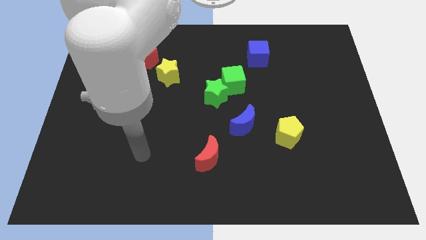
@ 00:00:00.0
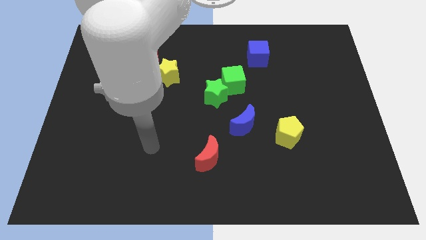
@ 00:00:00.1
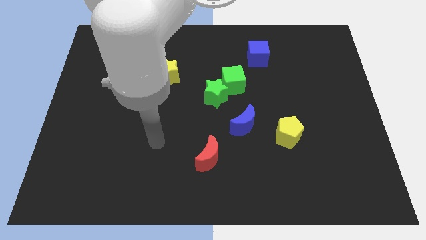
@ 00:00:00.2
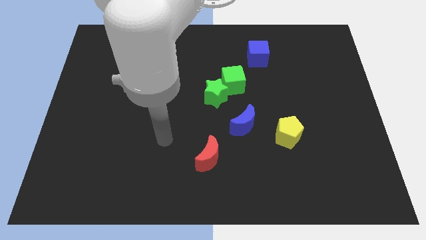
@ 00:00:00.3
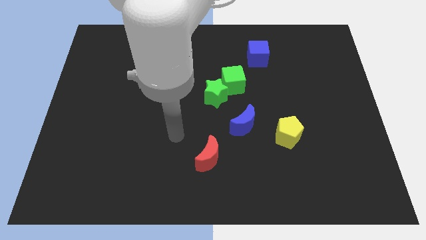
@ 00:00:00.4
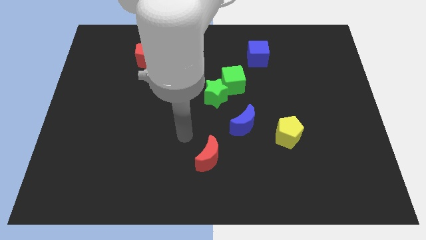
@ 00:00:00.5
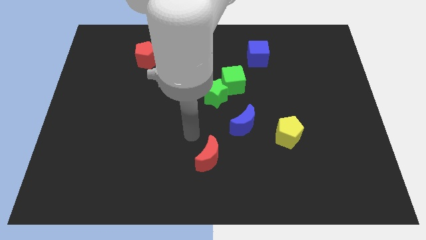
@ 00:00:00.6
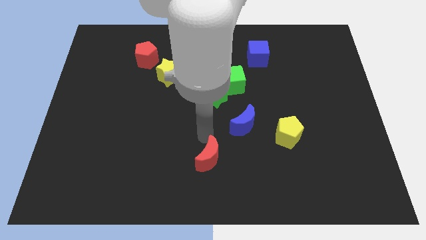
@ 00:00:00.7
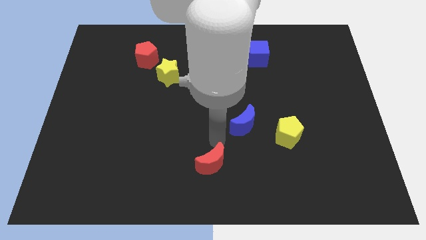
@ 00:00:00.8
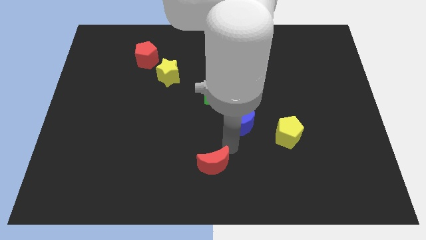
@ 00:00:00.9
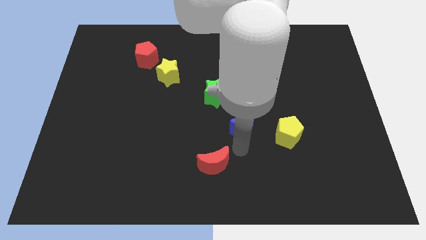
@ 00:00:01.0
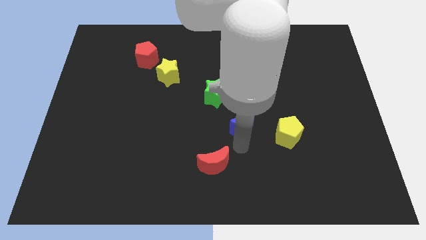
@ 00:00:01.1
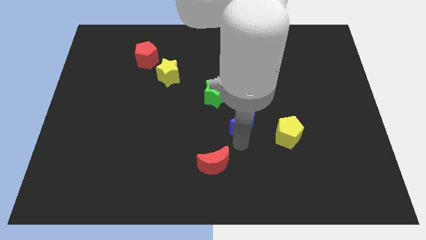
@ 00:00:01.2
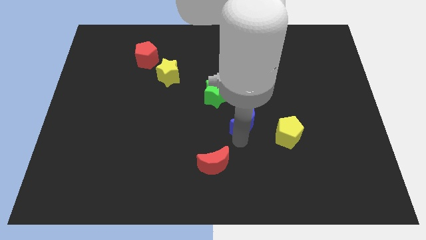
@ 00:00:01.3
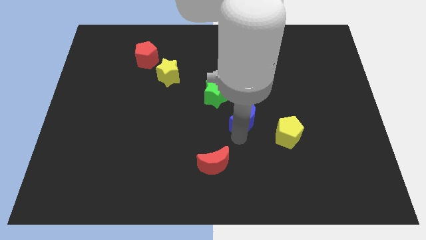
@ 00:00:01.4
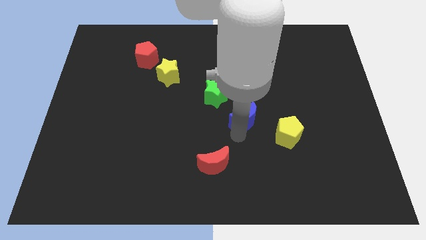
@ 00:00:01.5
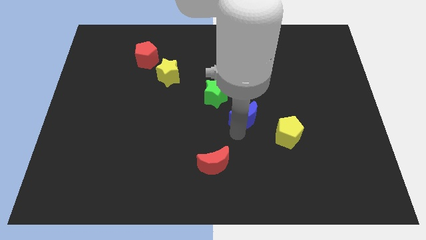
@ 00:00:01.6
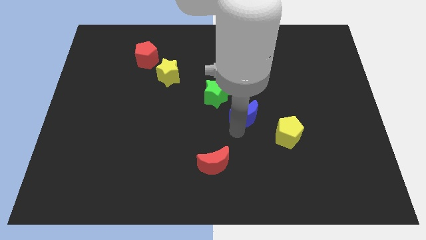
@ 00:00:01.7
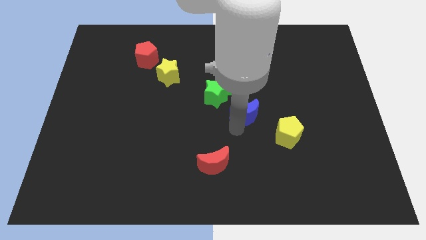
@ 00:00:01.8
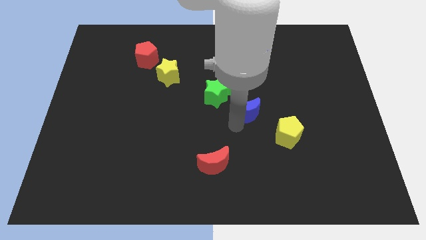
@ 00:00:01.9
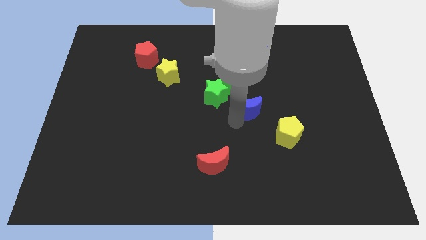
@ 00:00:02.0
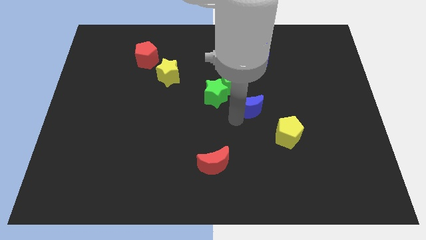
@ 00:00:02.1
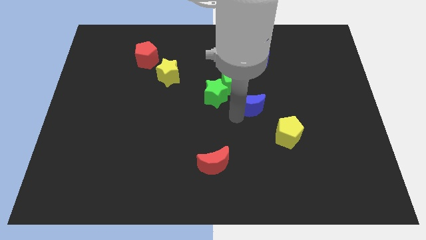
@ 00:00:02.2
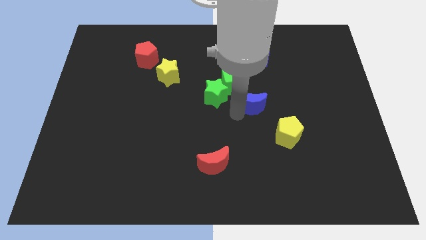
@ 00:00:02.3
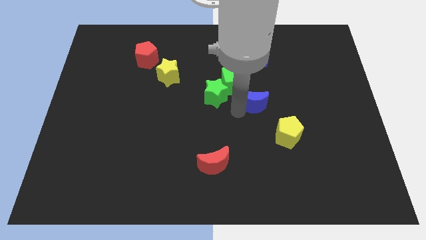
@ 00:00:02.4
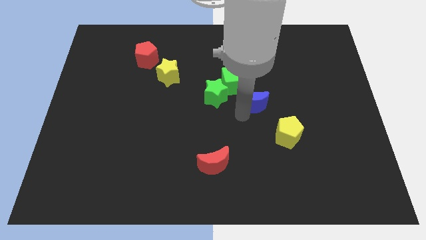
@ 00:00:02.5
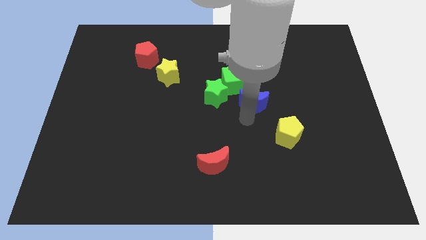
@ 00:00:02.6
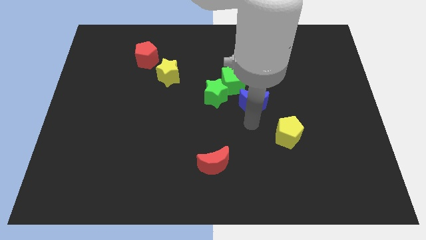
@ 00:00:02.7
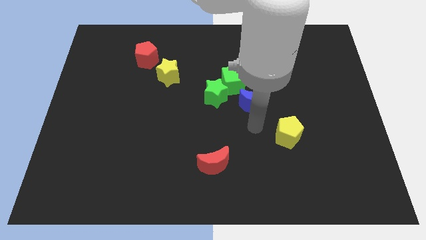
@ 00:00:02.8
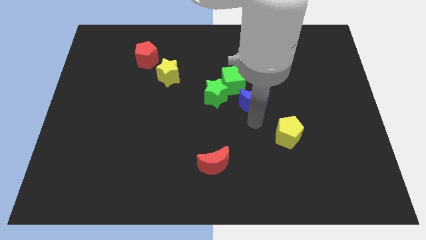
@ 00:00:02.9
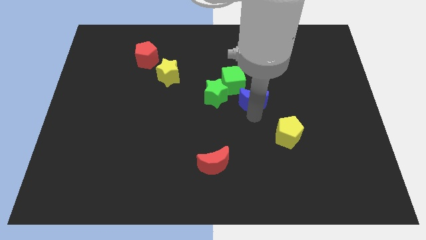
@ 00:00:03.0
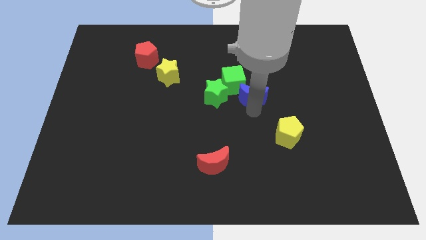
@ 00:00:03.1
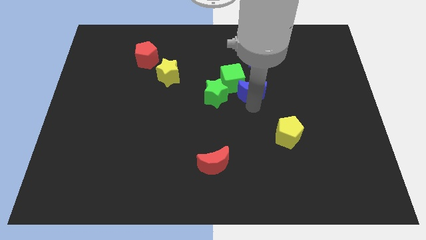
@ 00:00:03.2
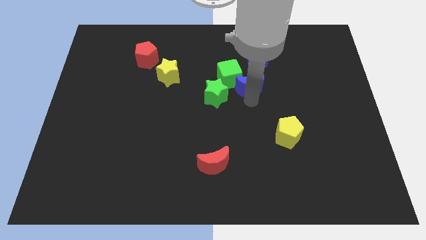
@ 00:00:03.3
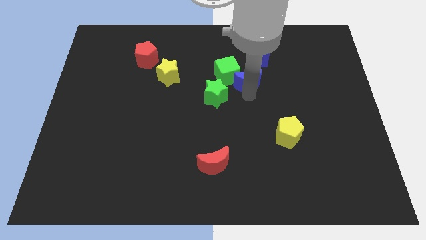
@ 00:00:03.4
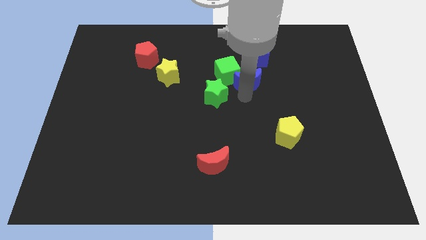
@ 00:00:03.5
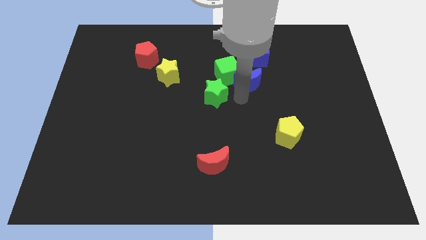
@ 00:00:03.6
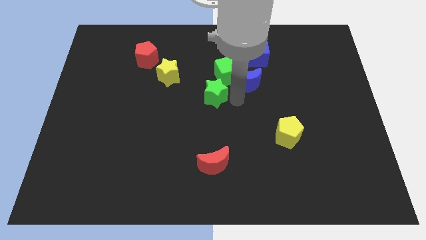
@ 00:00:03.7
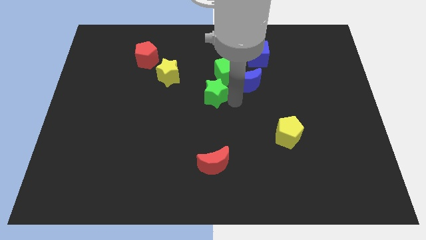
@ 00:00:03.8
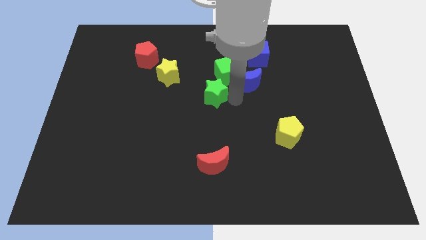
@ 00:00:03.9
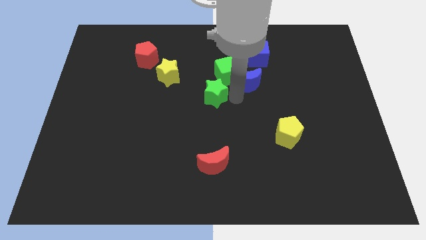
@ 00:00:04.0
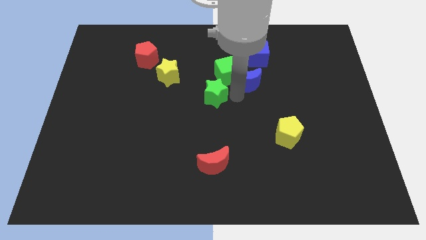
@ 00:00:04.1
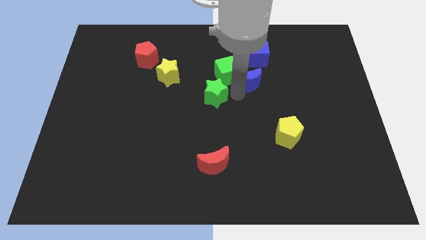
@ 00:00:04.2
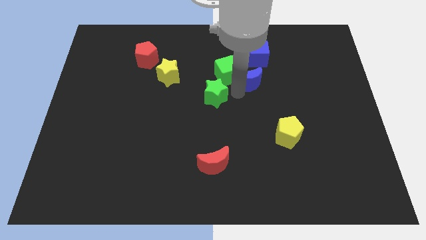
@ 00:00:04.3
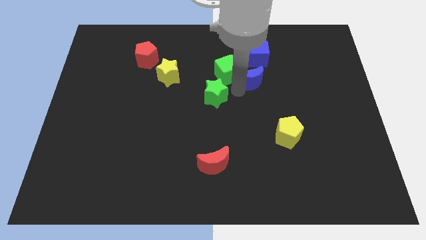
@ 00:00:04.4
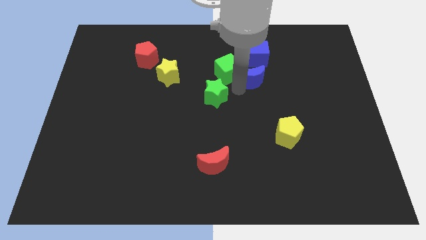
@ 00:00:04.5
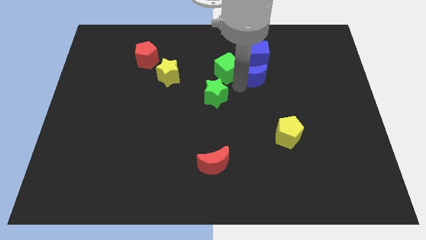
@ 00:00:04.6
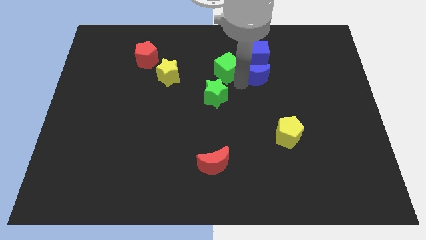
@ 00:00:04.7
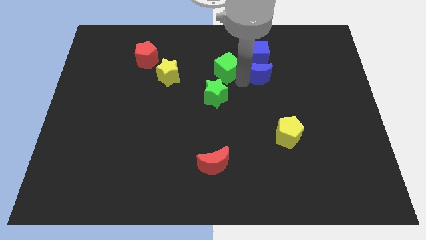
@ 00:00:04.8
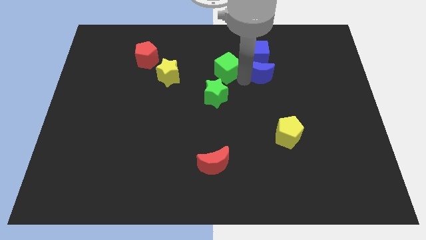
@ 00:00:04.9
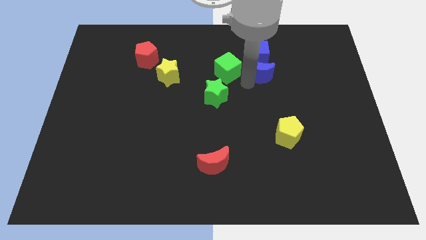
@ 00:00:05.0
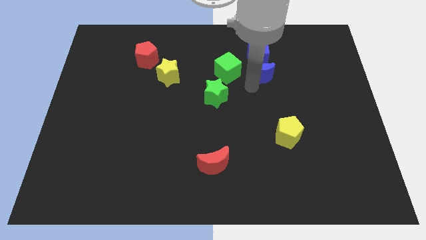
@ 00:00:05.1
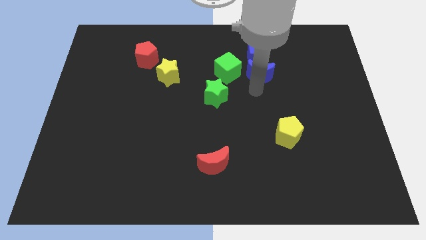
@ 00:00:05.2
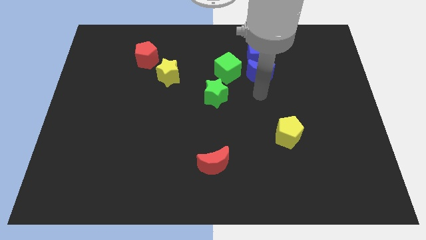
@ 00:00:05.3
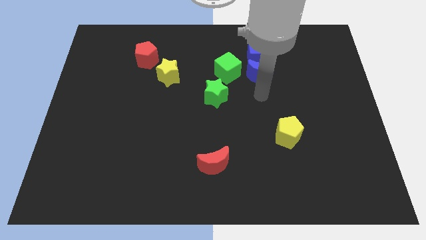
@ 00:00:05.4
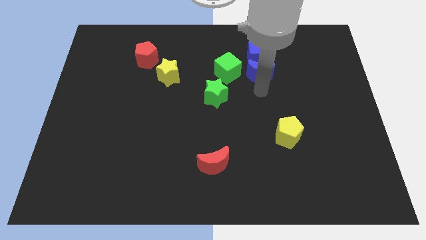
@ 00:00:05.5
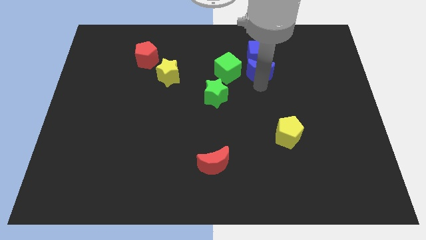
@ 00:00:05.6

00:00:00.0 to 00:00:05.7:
move the blue moon close to the blue cube
